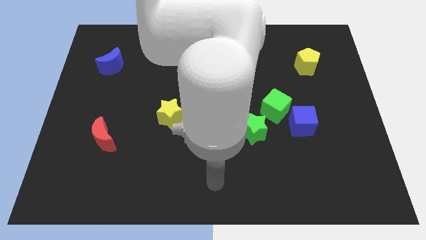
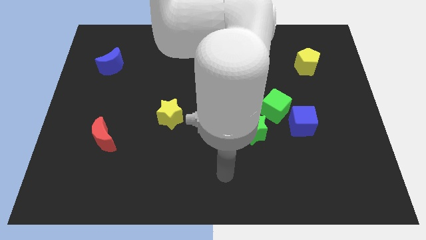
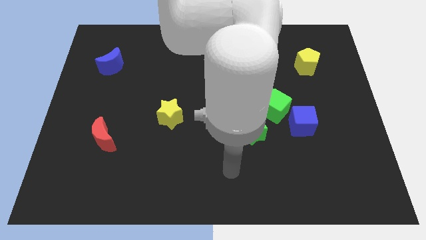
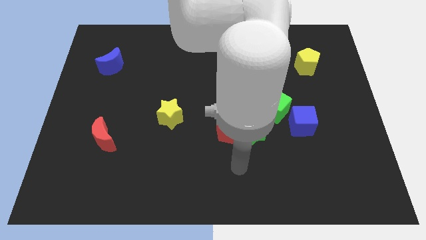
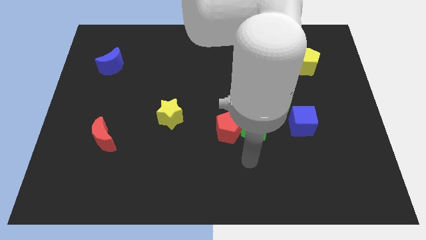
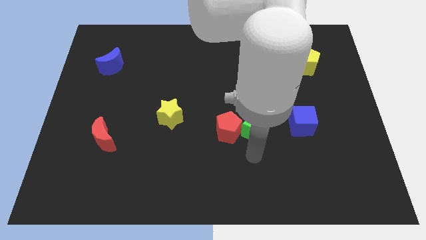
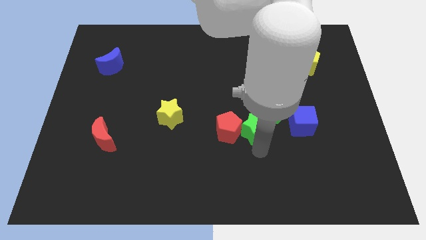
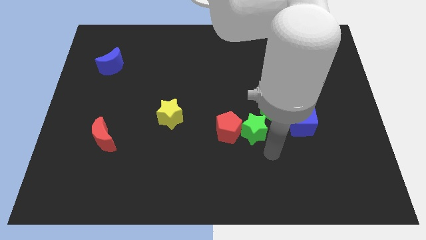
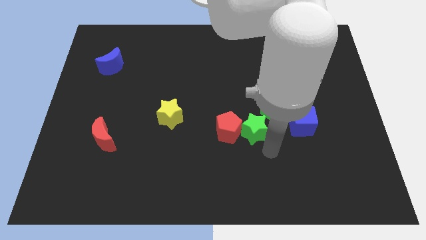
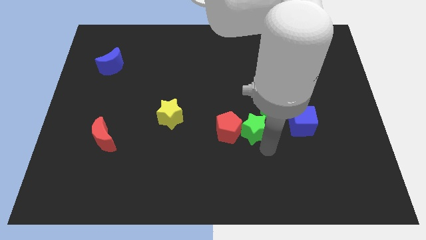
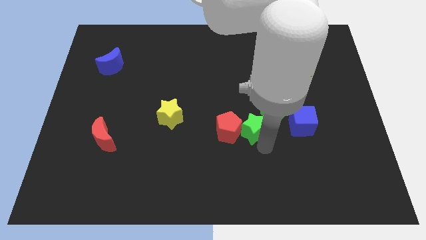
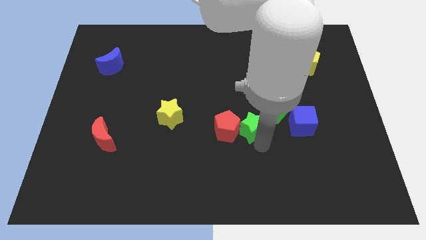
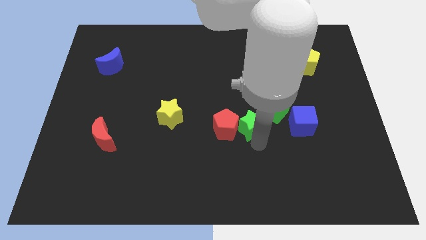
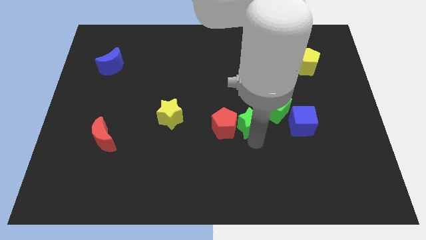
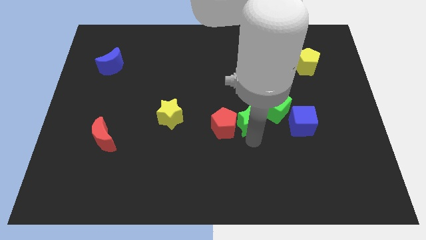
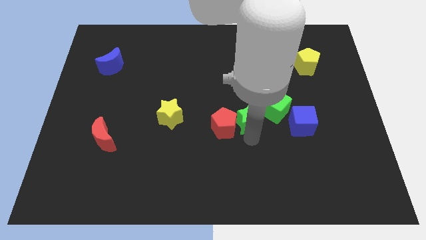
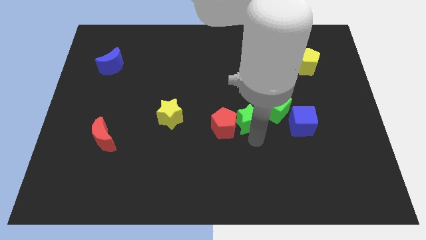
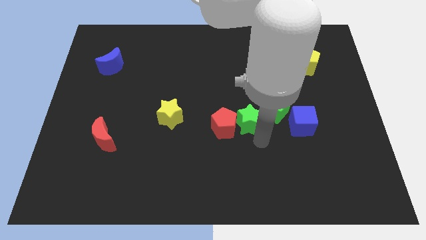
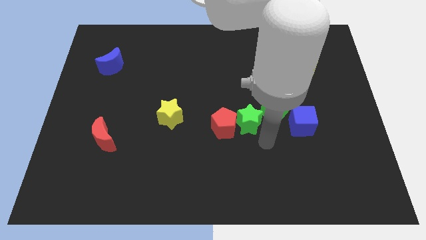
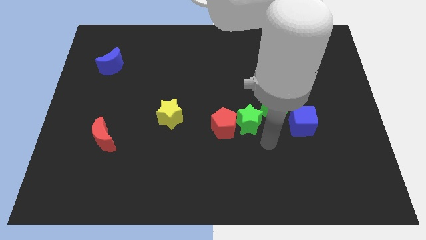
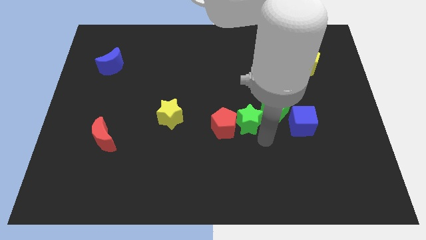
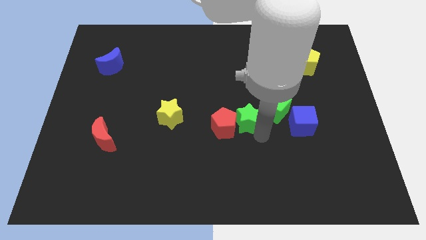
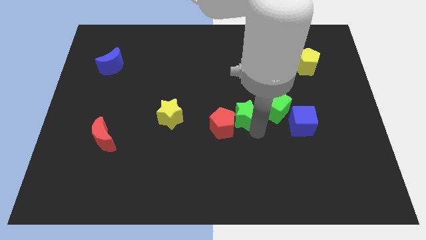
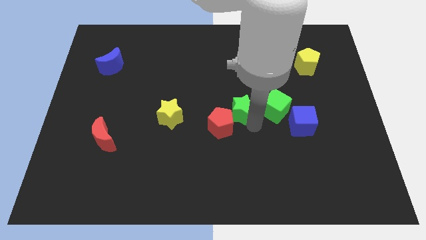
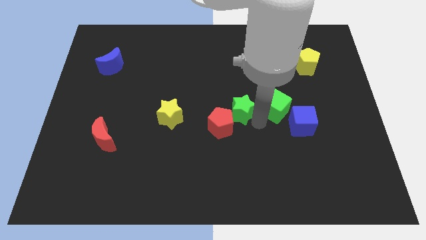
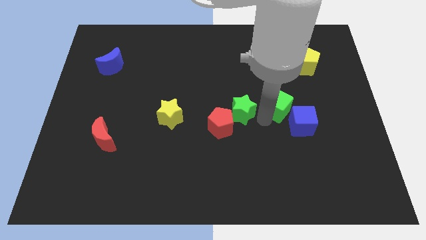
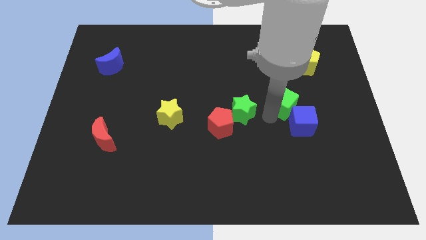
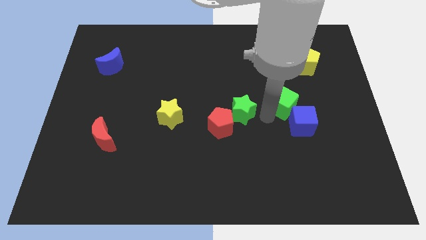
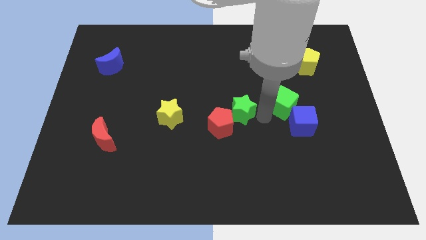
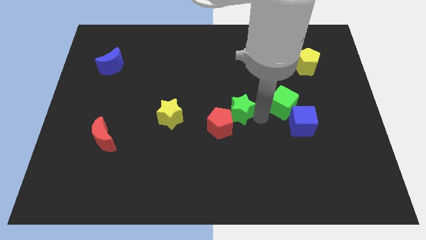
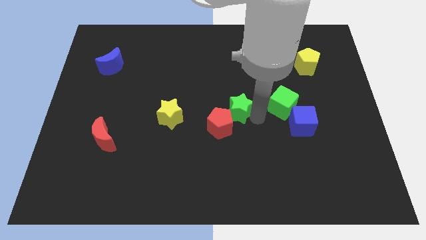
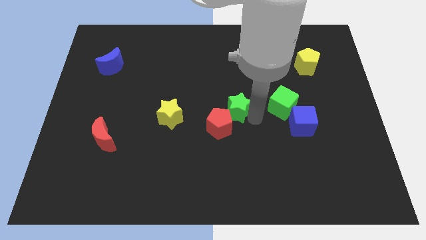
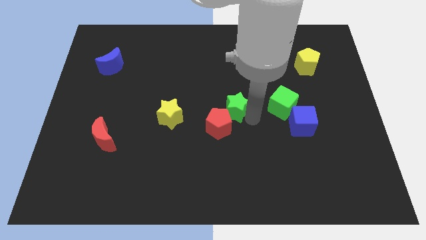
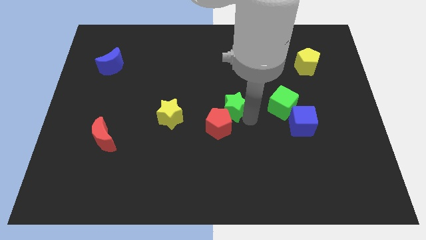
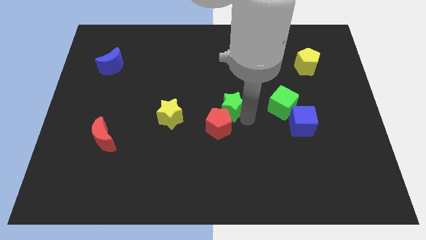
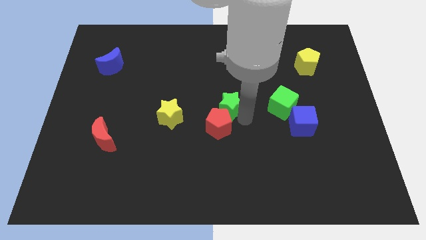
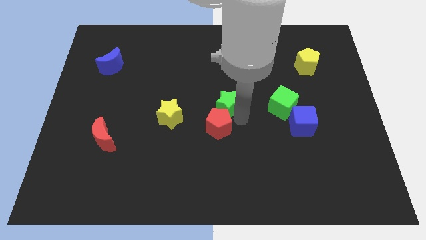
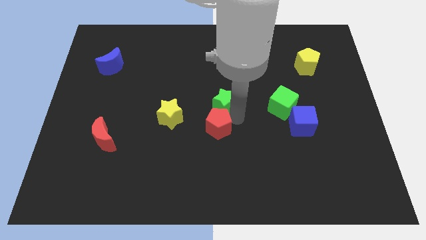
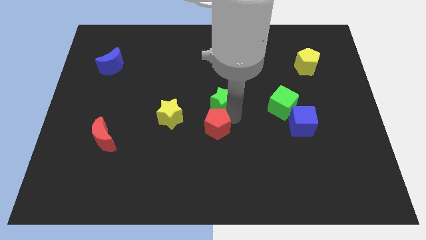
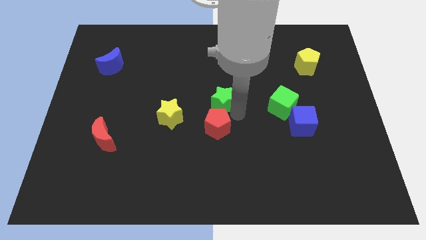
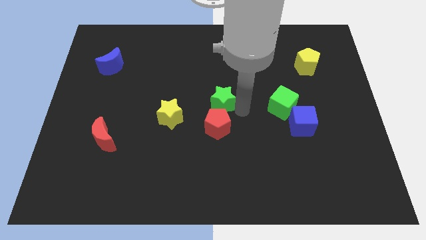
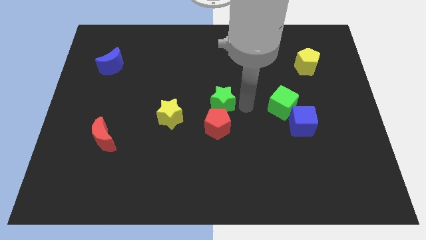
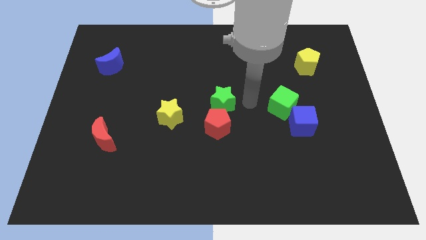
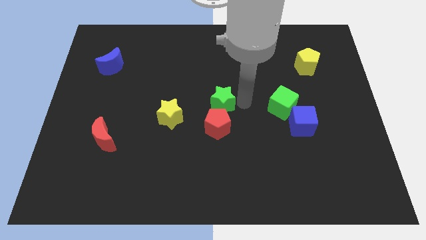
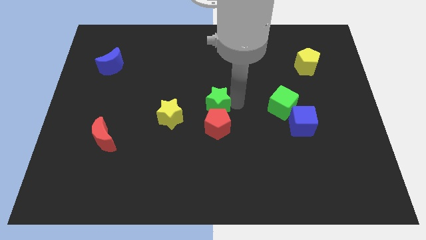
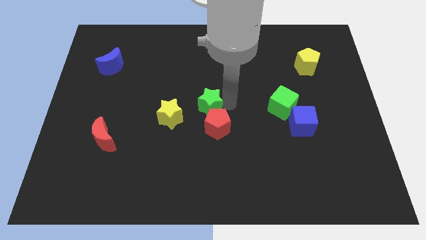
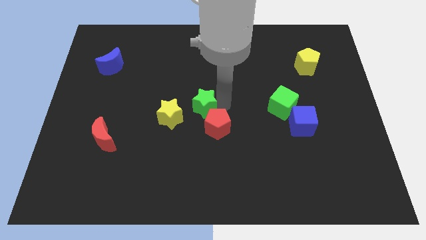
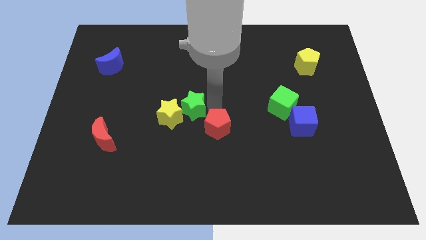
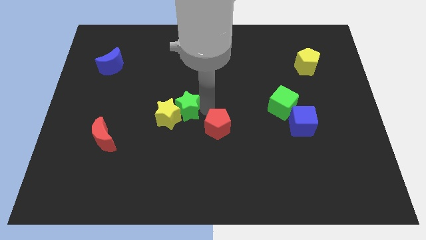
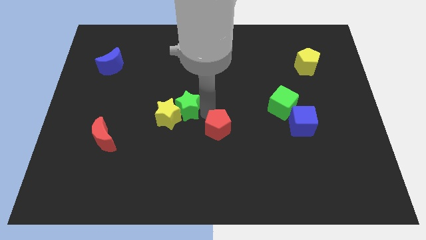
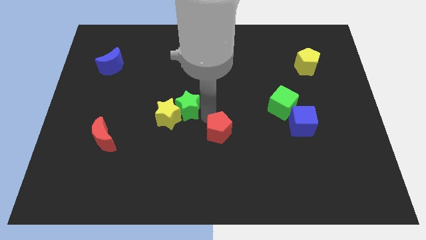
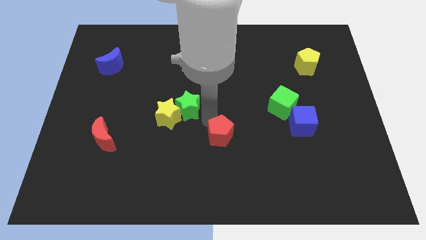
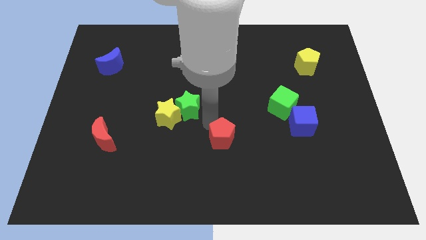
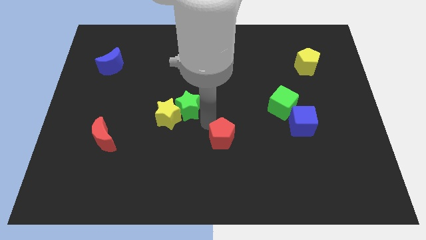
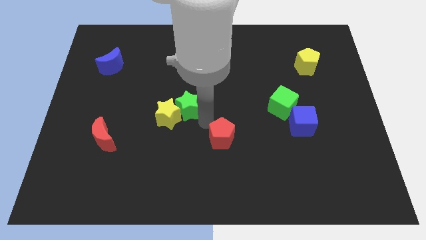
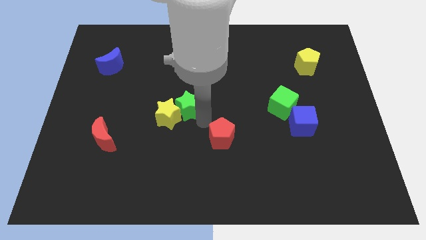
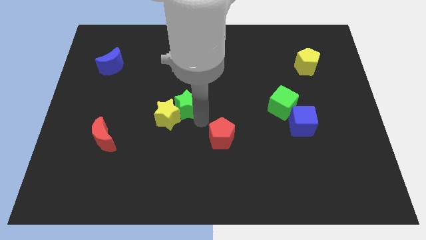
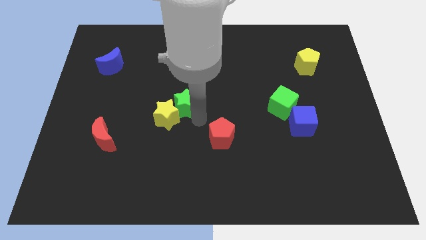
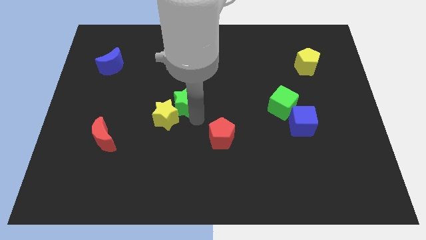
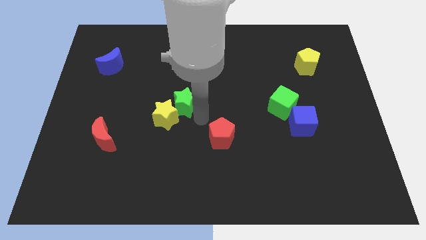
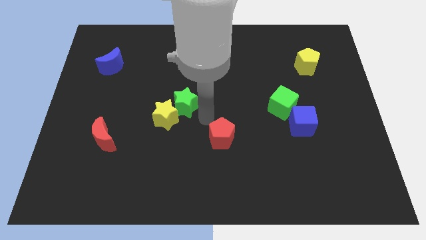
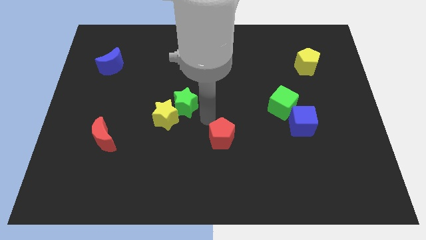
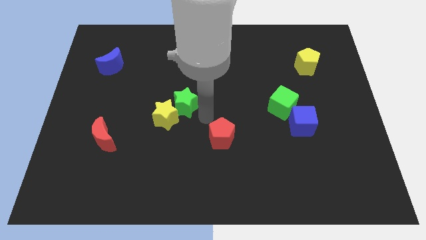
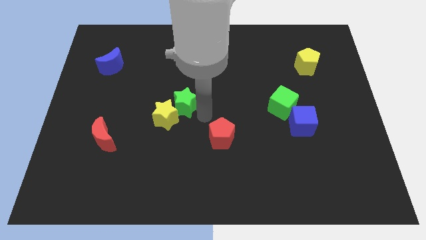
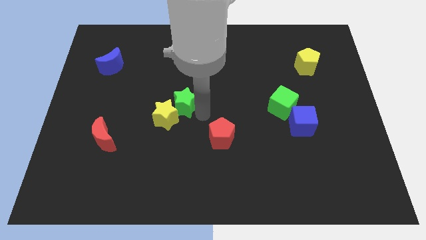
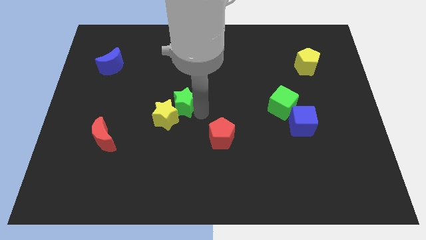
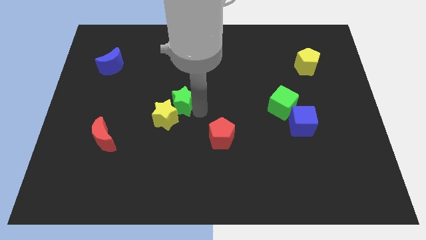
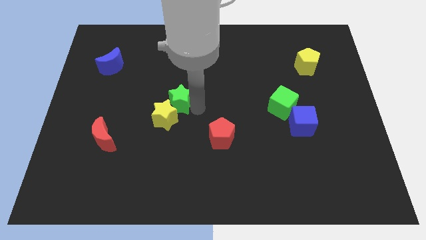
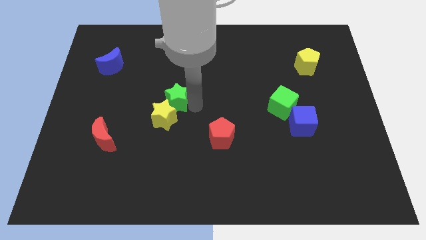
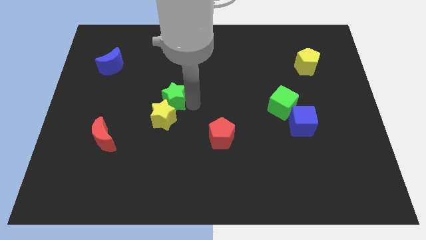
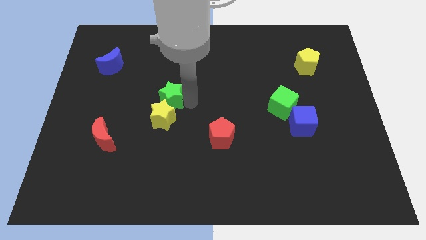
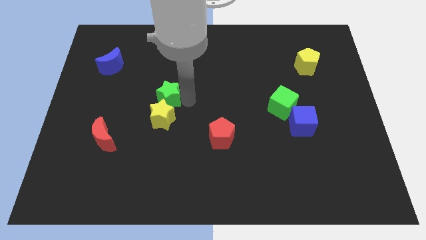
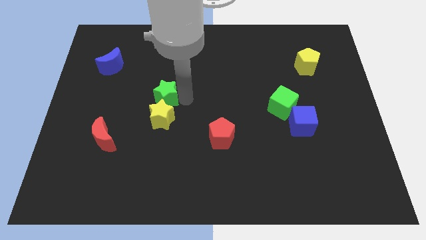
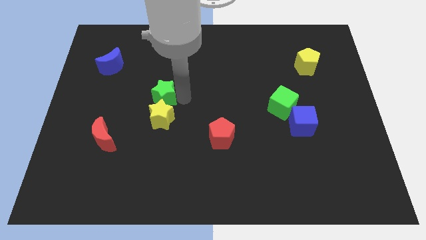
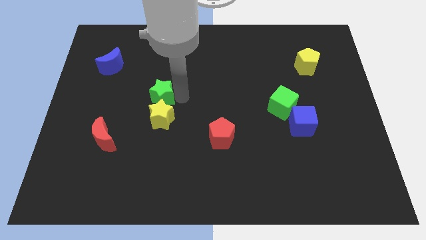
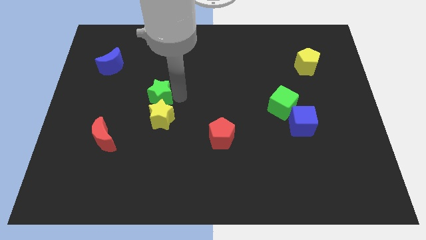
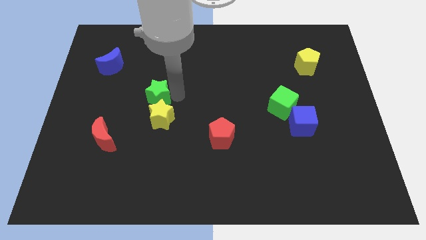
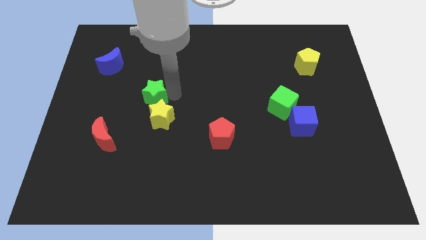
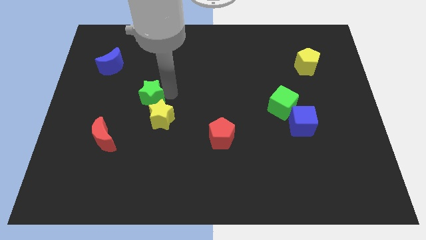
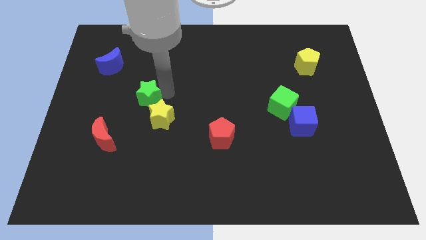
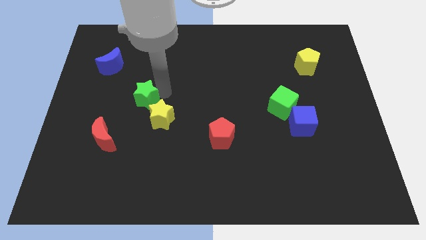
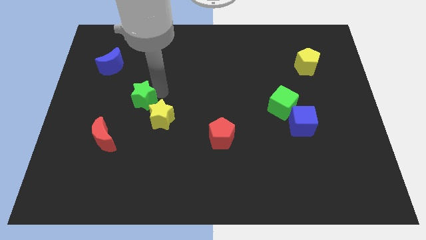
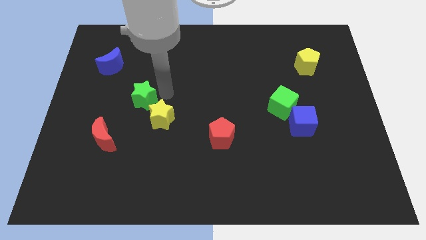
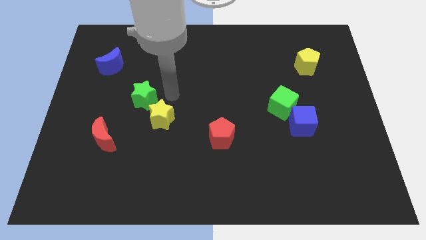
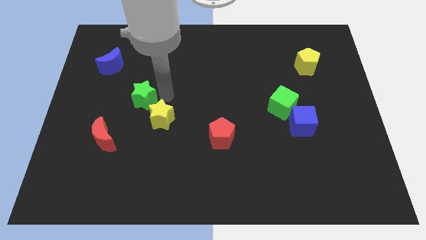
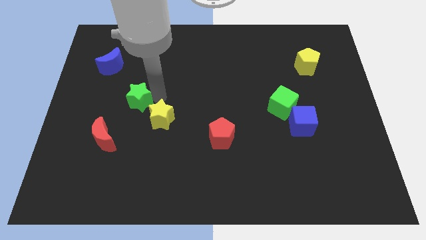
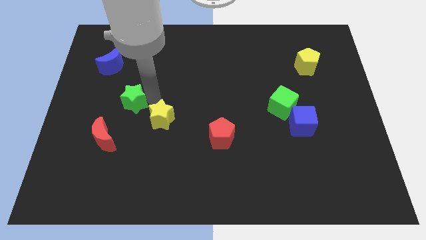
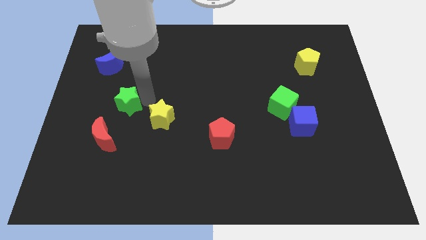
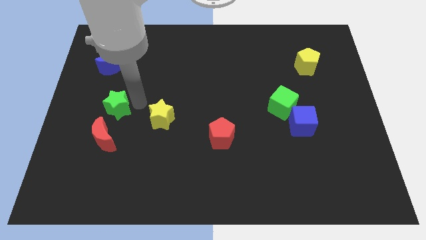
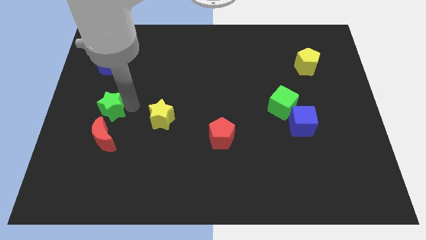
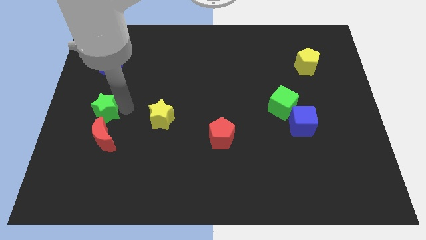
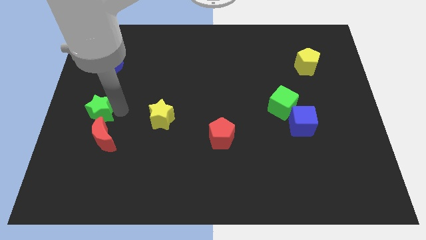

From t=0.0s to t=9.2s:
slide the green star to the center left
